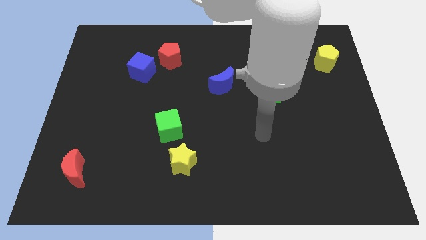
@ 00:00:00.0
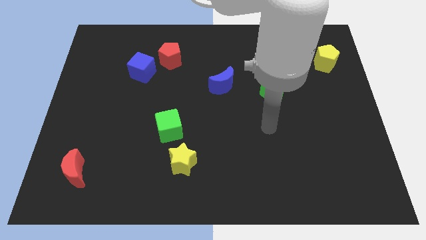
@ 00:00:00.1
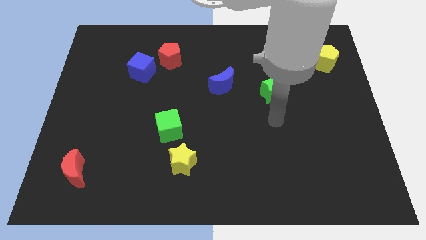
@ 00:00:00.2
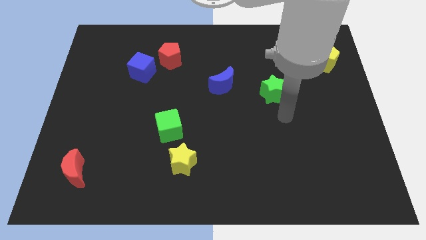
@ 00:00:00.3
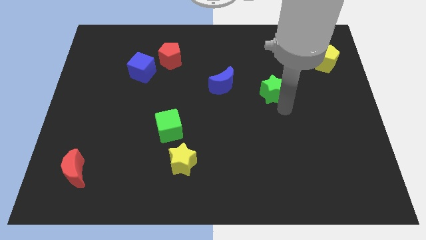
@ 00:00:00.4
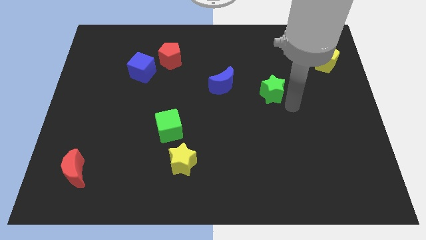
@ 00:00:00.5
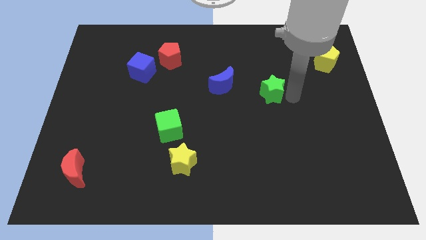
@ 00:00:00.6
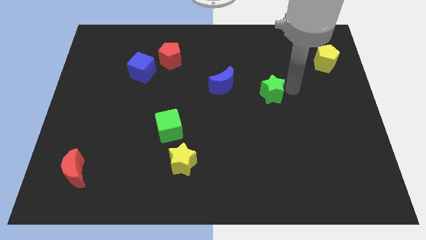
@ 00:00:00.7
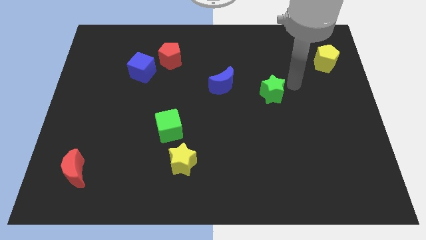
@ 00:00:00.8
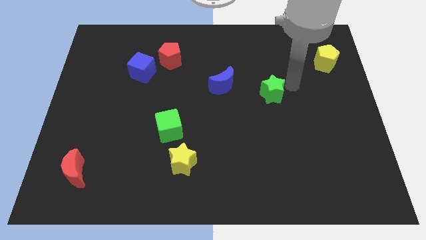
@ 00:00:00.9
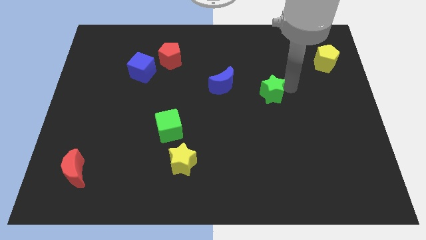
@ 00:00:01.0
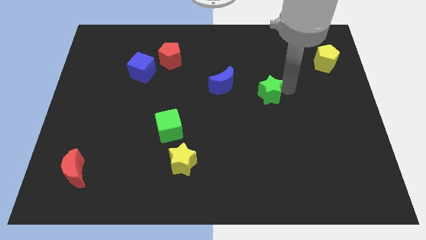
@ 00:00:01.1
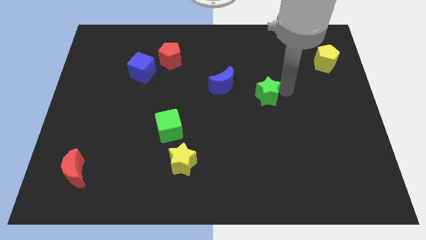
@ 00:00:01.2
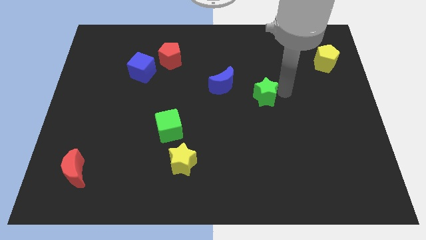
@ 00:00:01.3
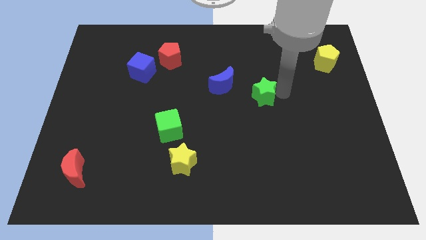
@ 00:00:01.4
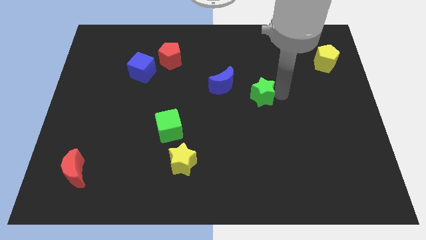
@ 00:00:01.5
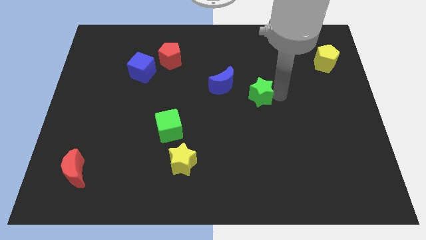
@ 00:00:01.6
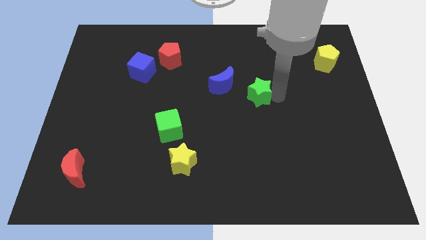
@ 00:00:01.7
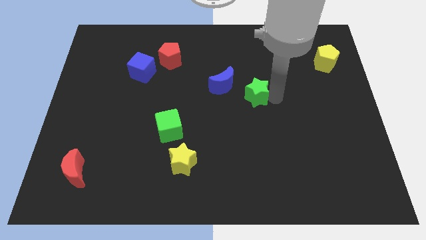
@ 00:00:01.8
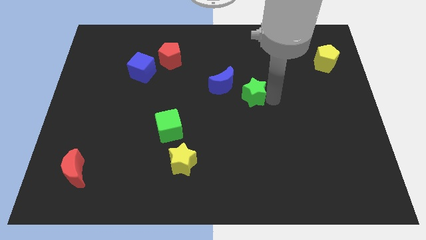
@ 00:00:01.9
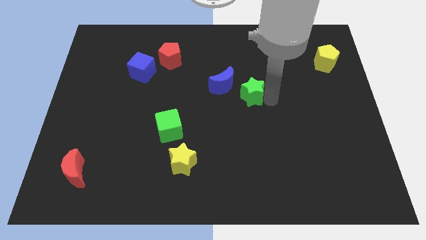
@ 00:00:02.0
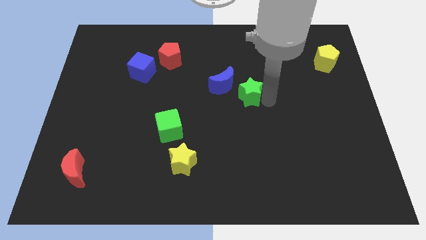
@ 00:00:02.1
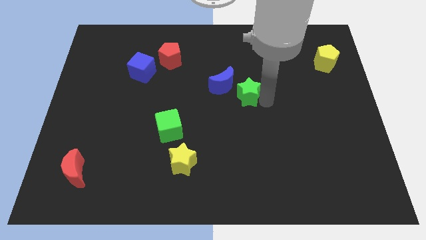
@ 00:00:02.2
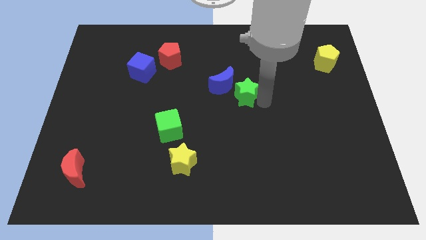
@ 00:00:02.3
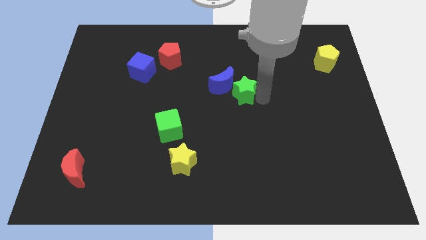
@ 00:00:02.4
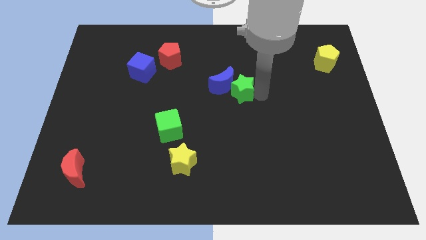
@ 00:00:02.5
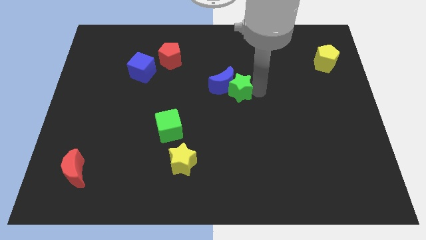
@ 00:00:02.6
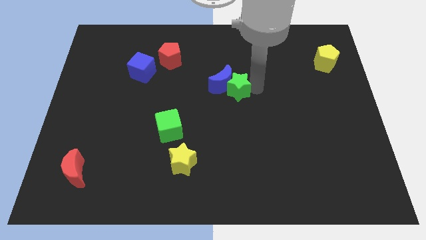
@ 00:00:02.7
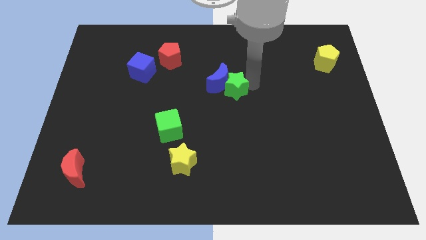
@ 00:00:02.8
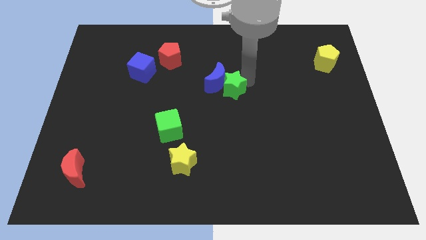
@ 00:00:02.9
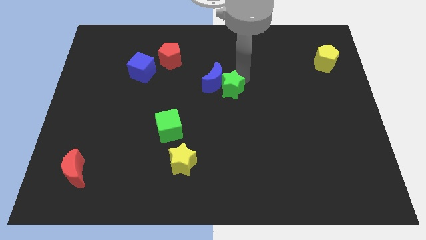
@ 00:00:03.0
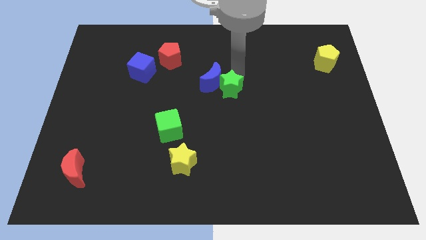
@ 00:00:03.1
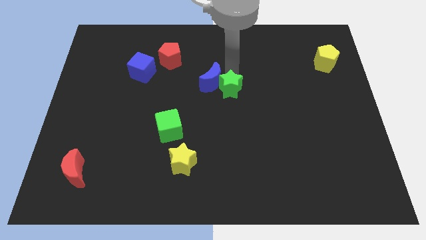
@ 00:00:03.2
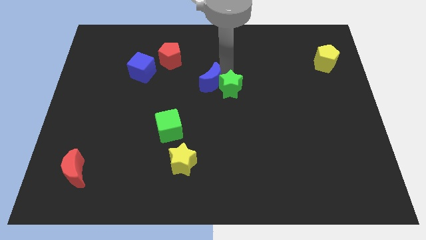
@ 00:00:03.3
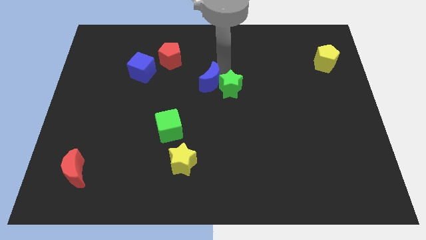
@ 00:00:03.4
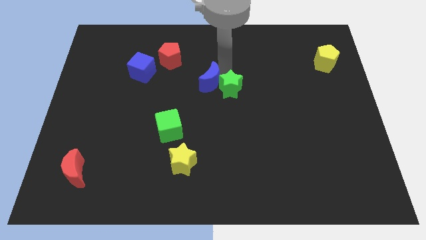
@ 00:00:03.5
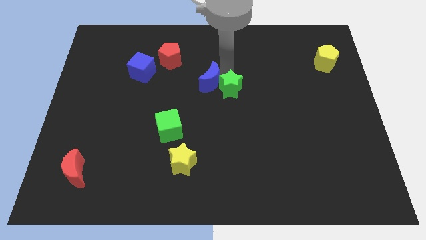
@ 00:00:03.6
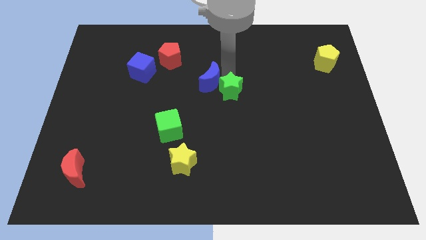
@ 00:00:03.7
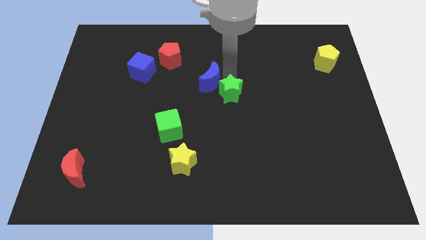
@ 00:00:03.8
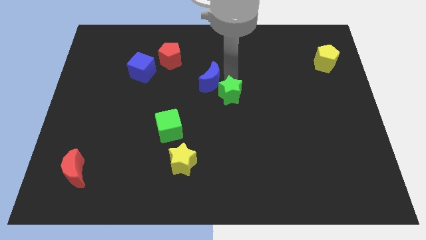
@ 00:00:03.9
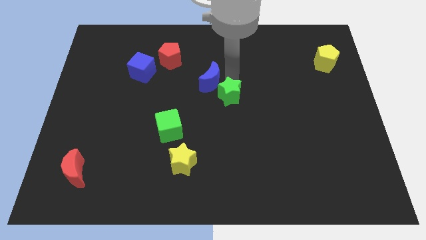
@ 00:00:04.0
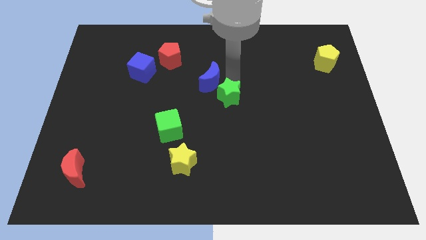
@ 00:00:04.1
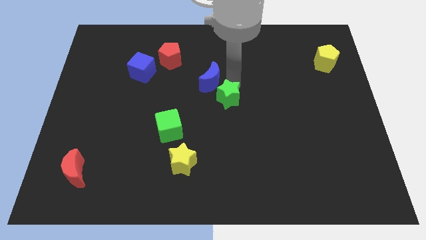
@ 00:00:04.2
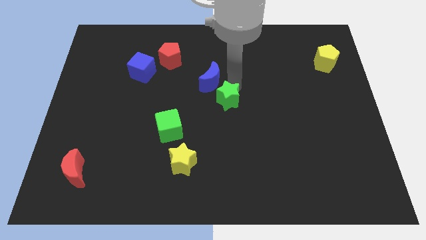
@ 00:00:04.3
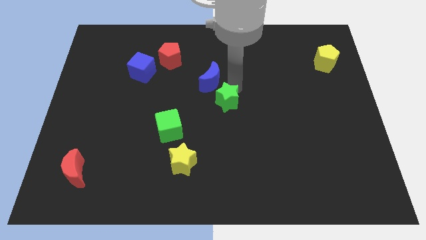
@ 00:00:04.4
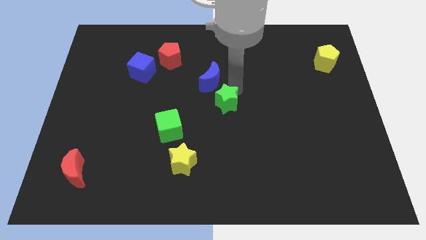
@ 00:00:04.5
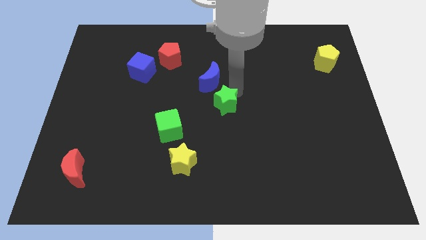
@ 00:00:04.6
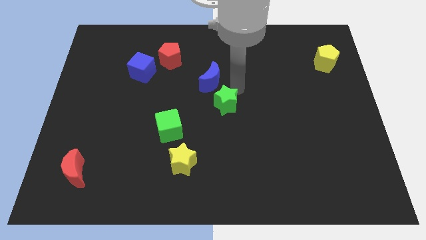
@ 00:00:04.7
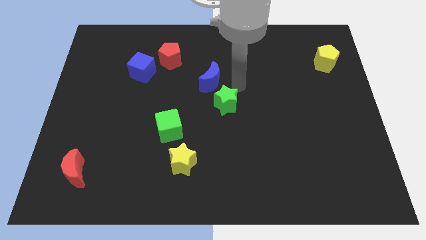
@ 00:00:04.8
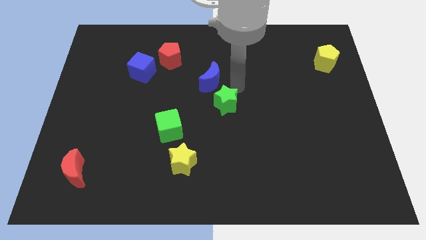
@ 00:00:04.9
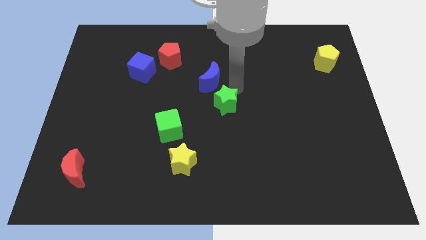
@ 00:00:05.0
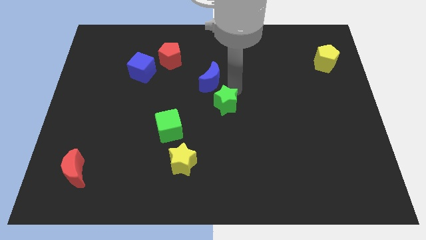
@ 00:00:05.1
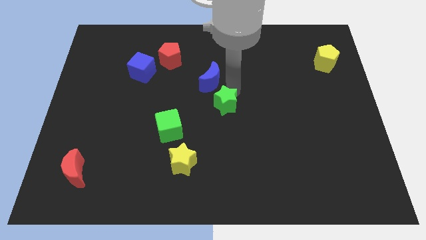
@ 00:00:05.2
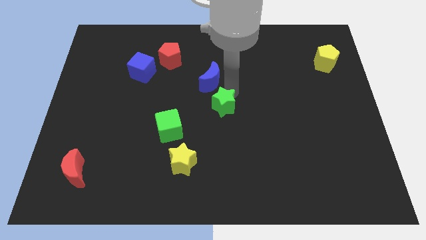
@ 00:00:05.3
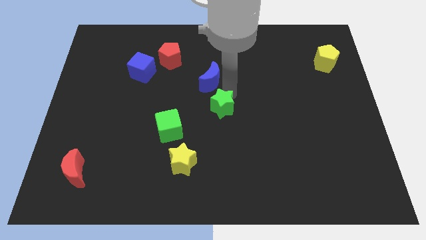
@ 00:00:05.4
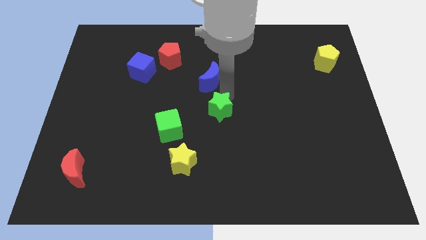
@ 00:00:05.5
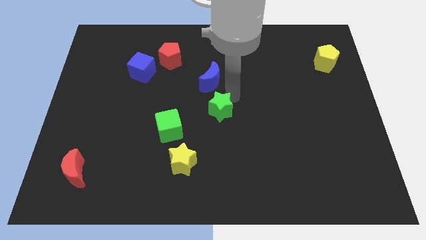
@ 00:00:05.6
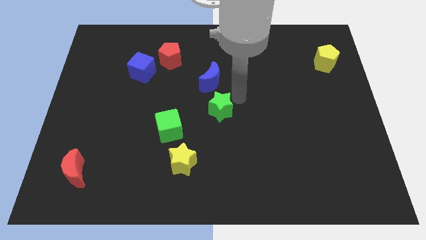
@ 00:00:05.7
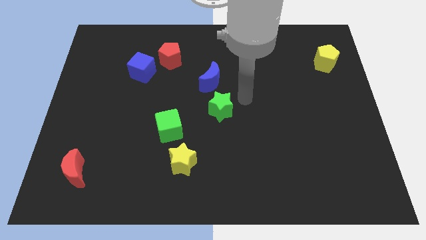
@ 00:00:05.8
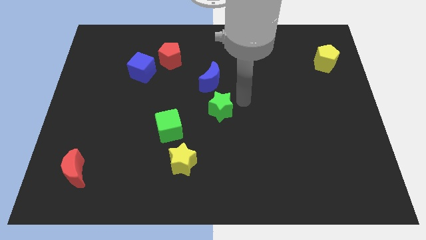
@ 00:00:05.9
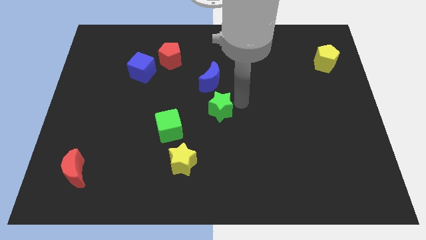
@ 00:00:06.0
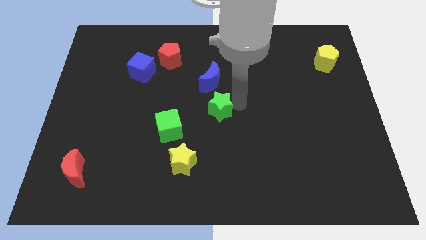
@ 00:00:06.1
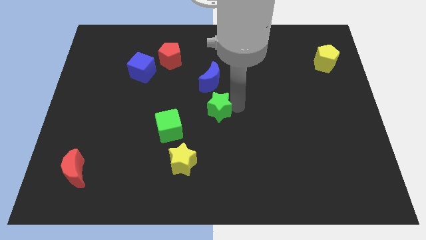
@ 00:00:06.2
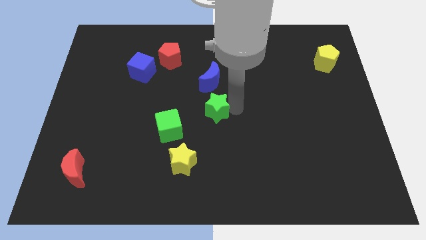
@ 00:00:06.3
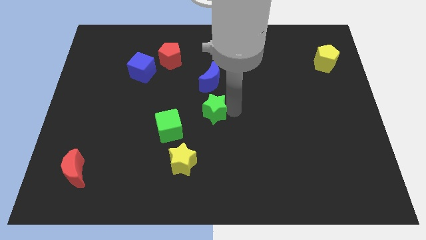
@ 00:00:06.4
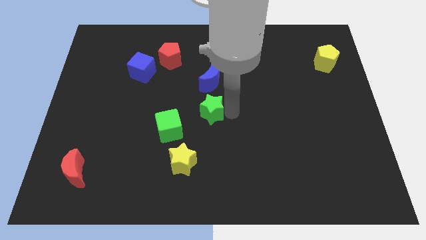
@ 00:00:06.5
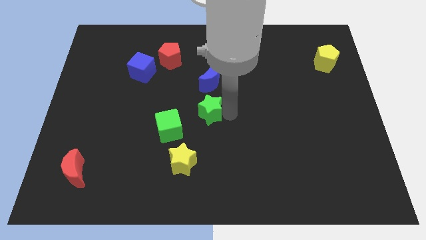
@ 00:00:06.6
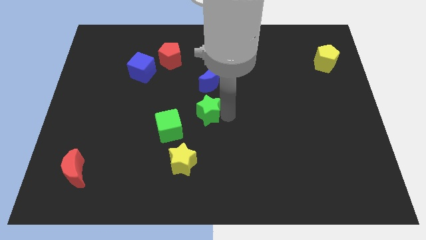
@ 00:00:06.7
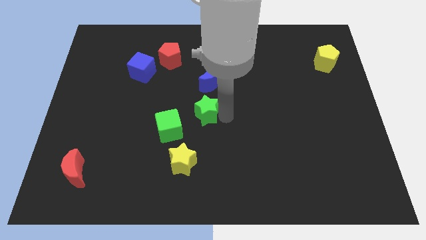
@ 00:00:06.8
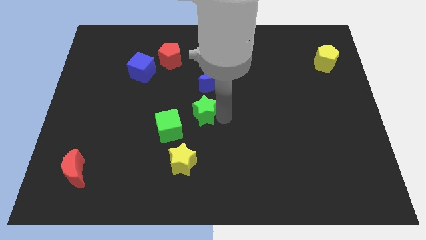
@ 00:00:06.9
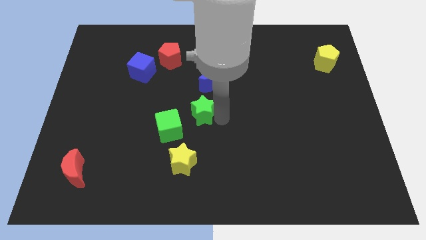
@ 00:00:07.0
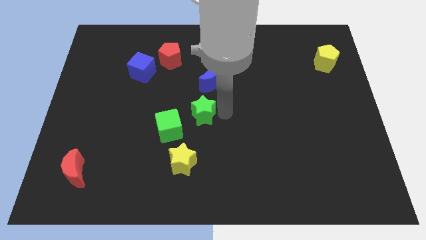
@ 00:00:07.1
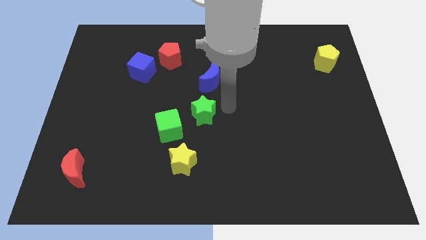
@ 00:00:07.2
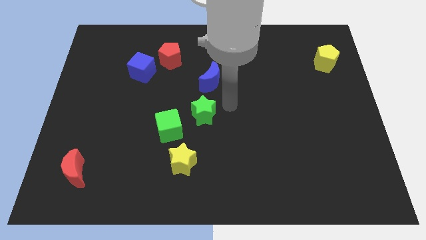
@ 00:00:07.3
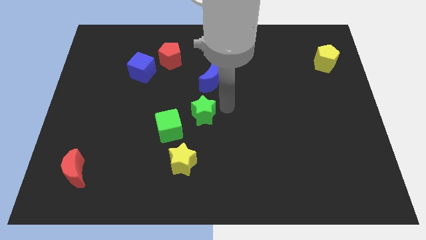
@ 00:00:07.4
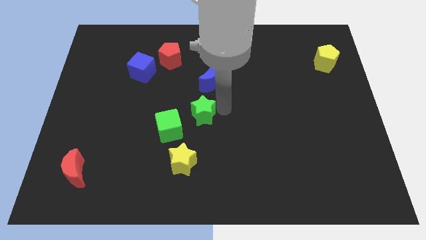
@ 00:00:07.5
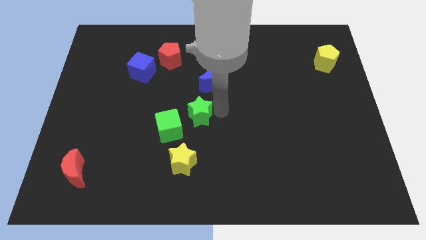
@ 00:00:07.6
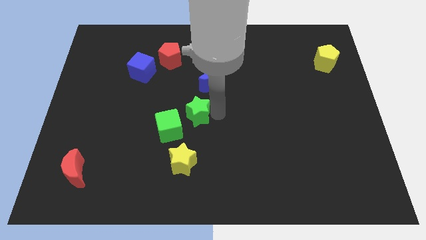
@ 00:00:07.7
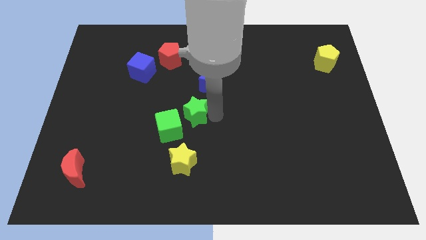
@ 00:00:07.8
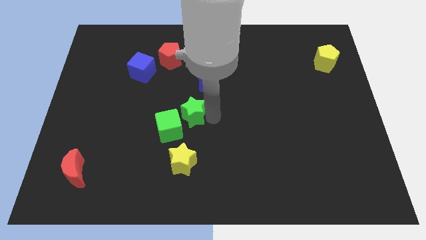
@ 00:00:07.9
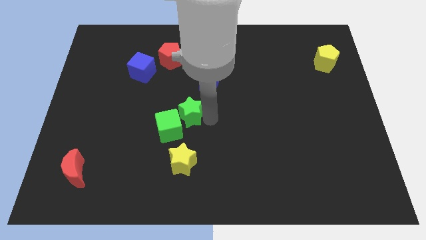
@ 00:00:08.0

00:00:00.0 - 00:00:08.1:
push the green star to the green cube
